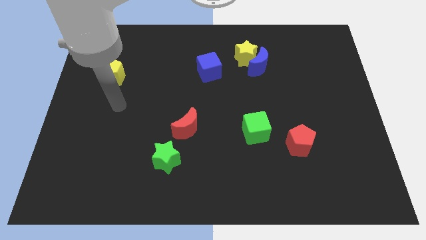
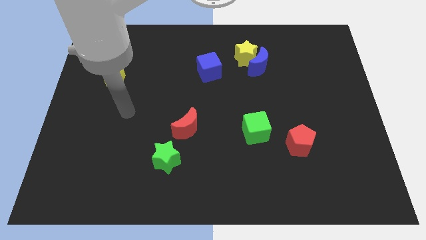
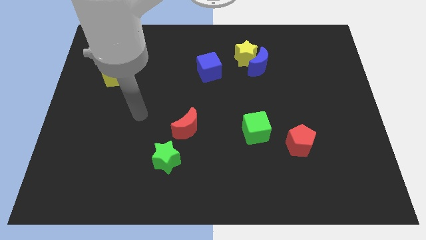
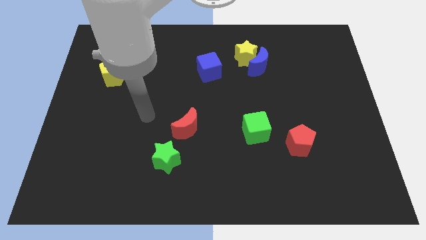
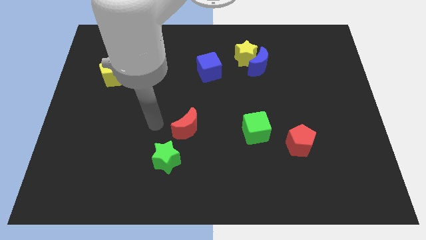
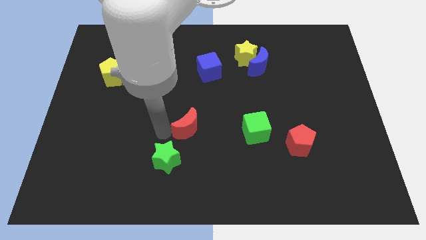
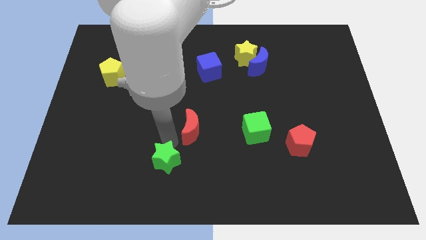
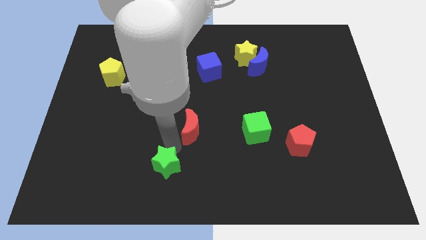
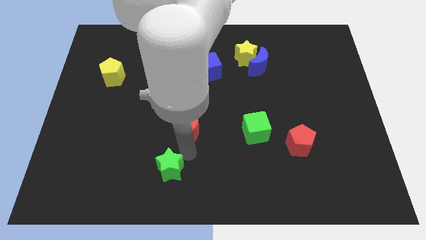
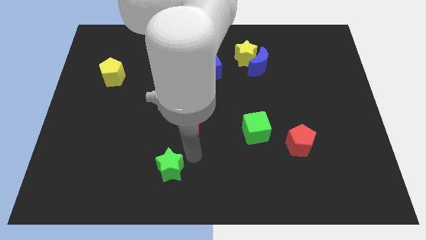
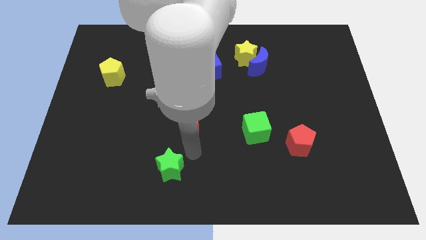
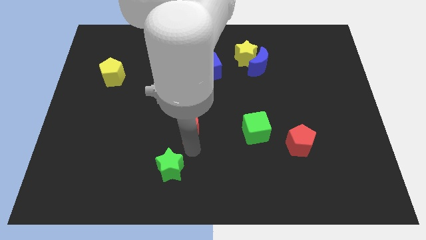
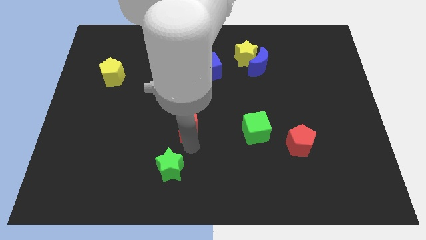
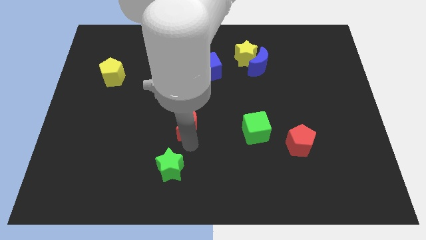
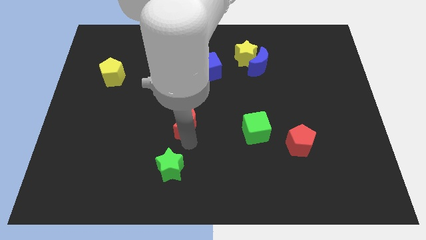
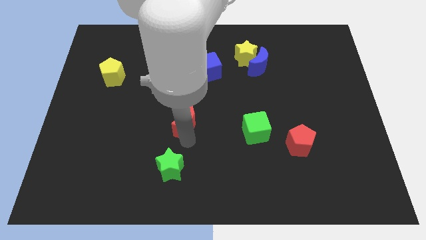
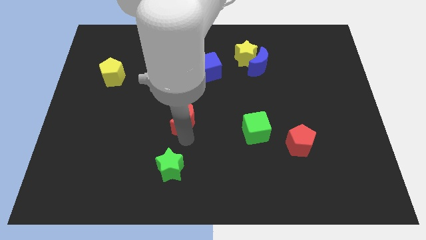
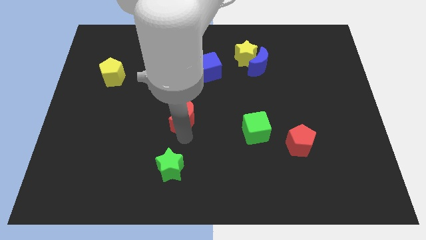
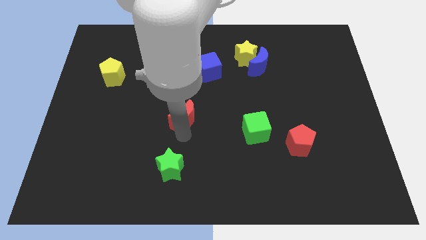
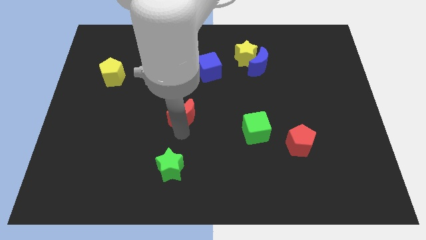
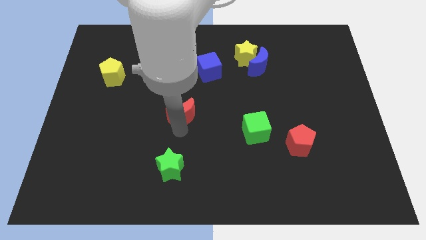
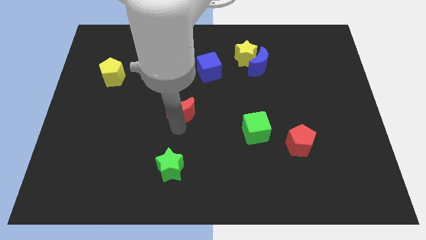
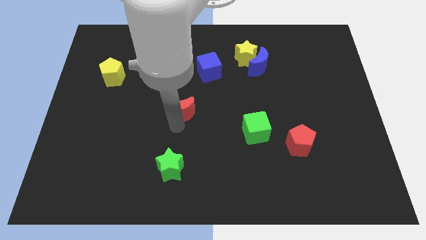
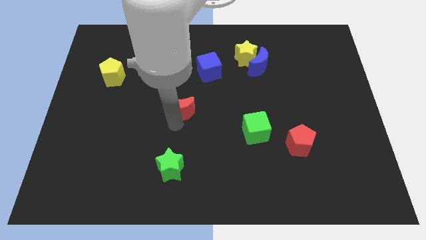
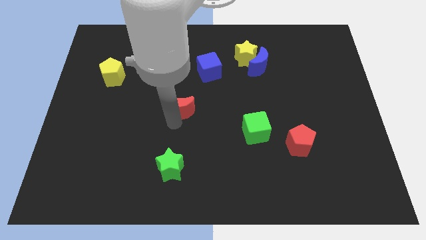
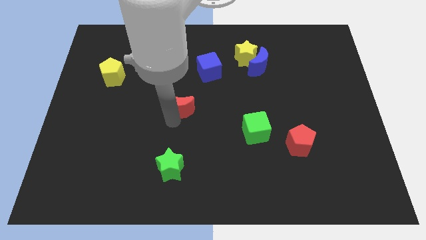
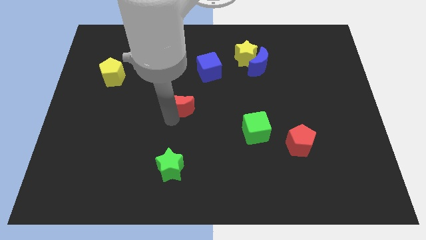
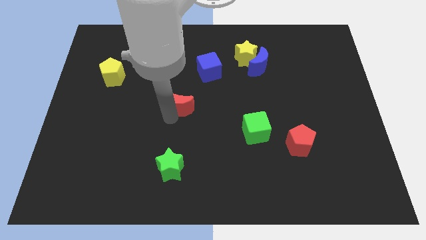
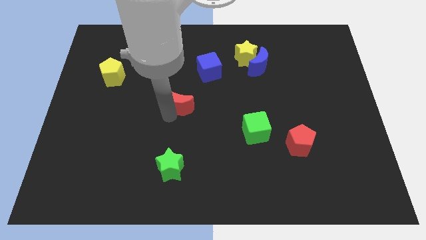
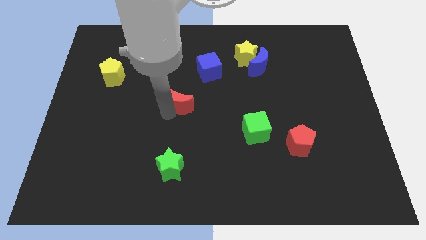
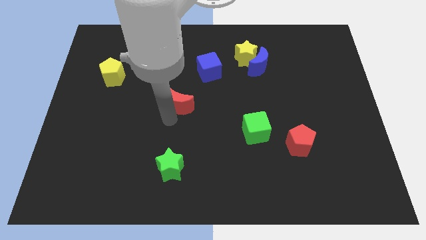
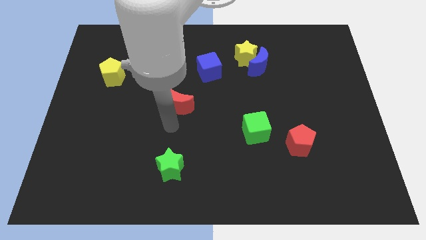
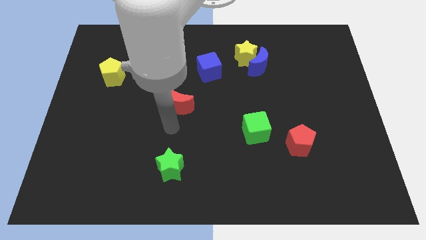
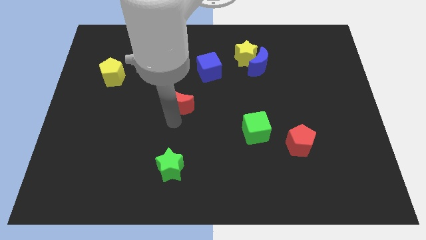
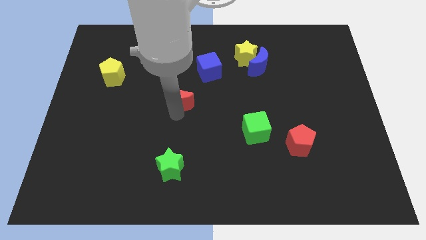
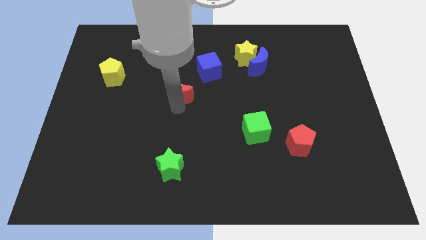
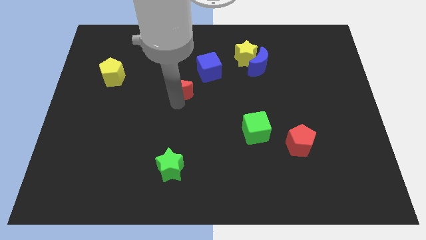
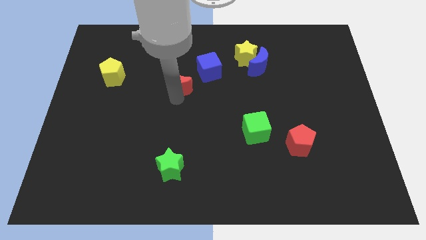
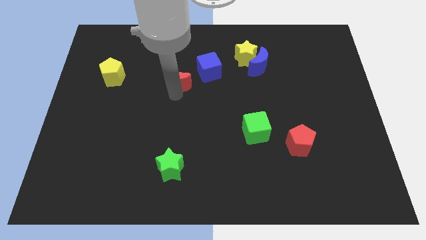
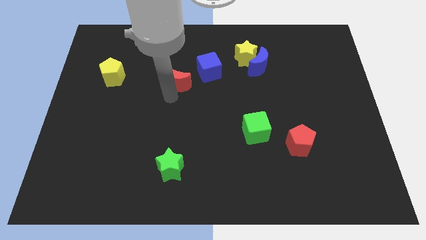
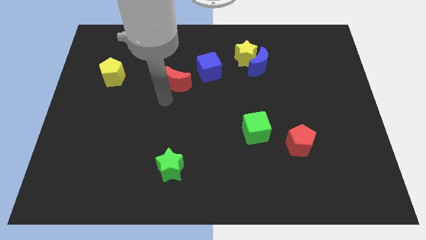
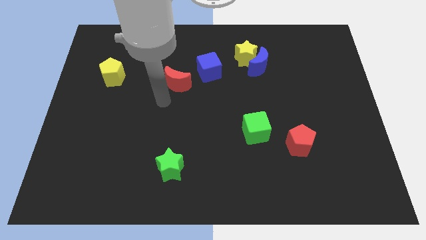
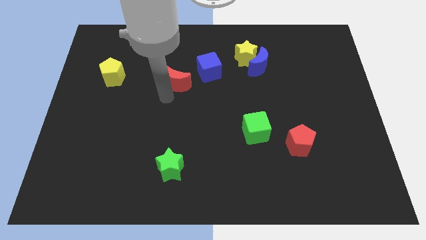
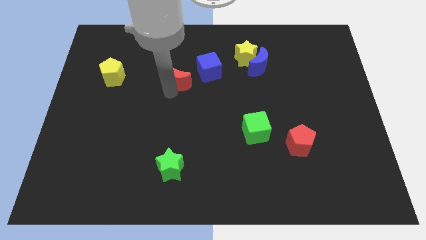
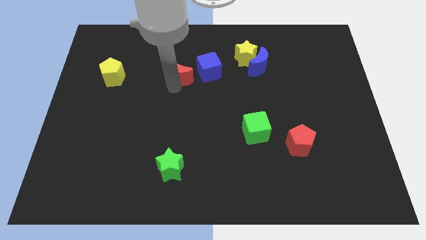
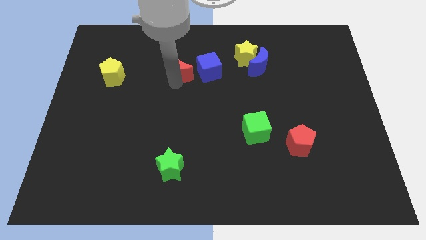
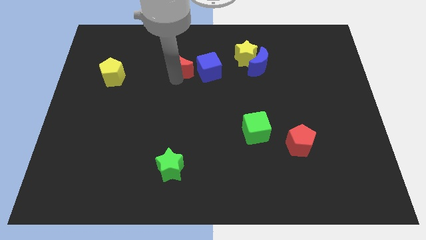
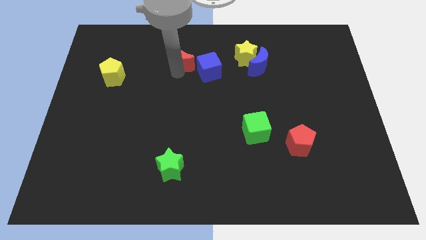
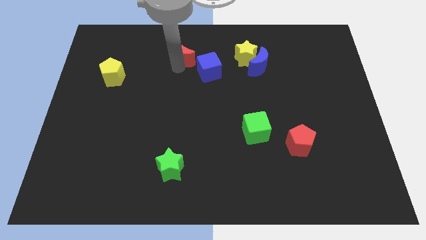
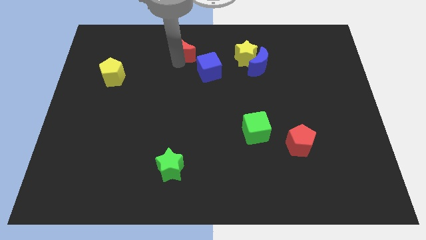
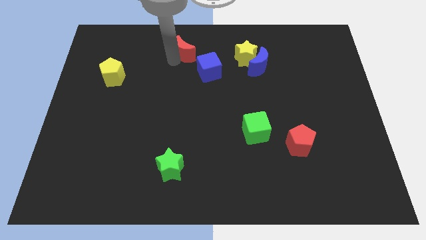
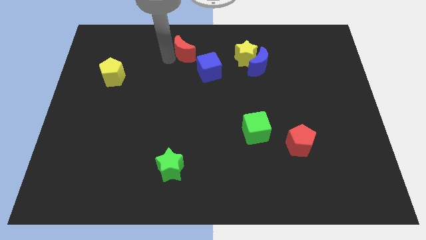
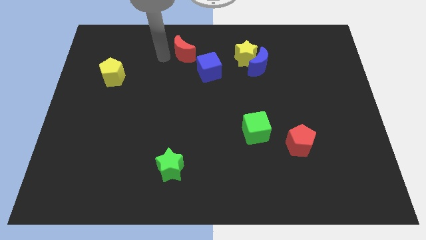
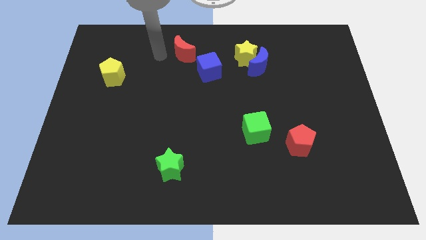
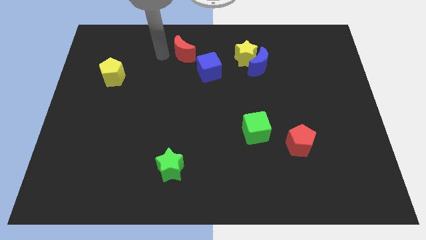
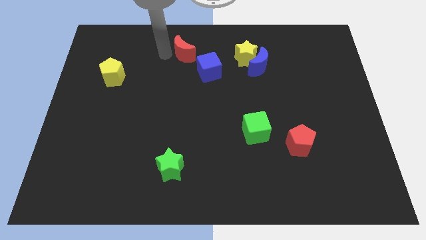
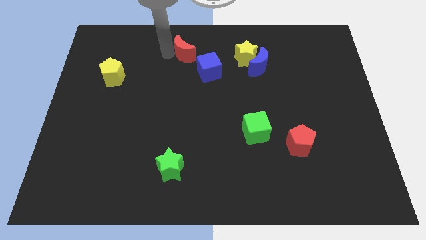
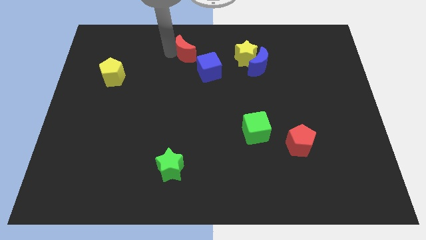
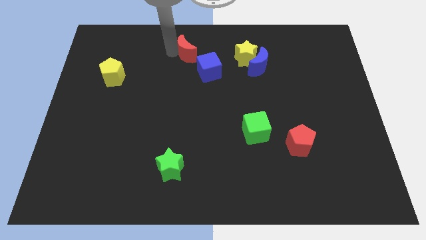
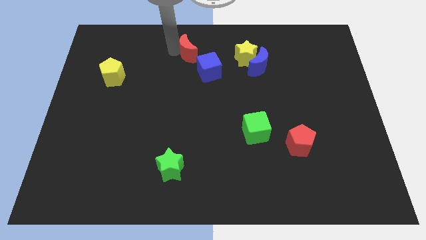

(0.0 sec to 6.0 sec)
slide the red moon to the towards your base
